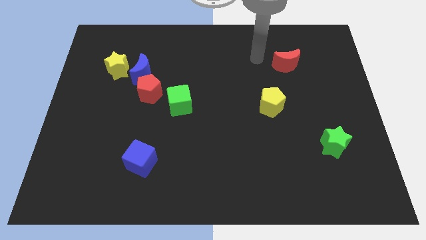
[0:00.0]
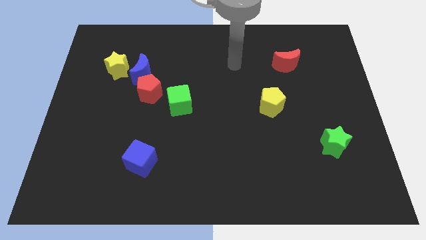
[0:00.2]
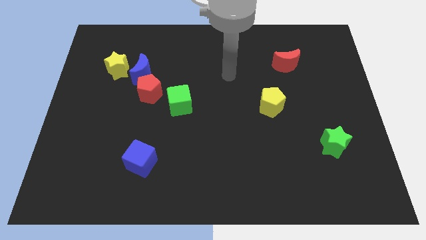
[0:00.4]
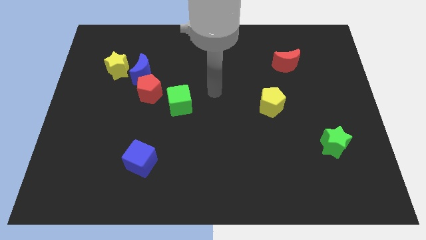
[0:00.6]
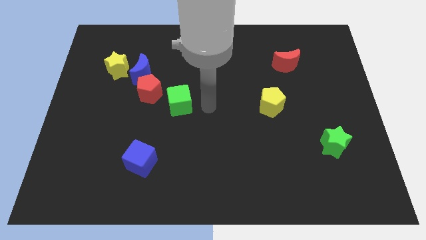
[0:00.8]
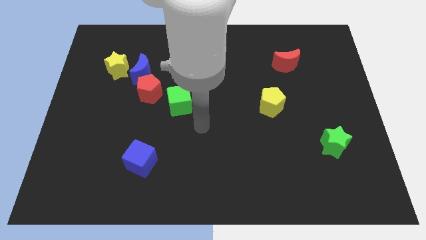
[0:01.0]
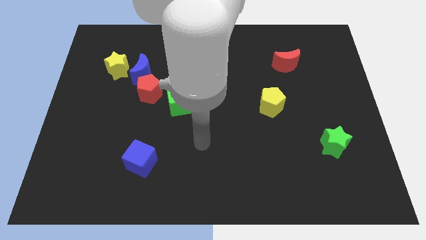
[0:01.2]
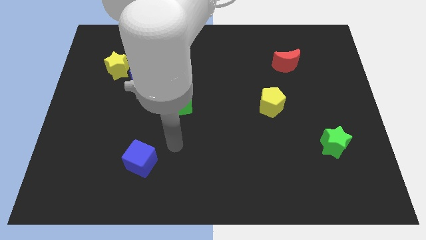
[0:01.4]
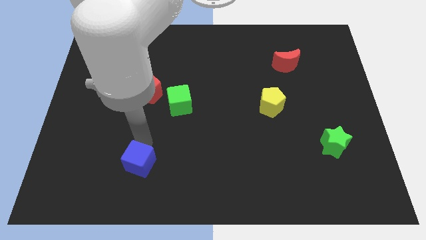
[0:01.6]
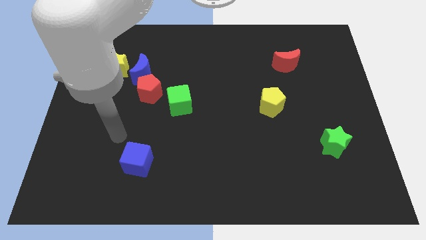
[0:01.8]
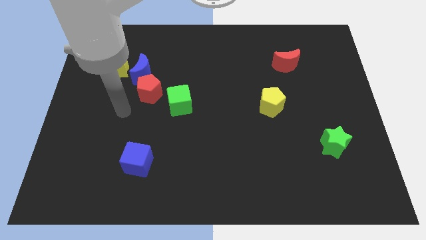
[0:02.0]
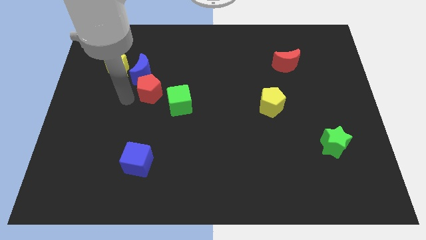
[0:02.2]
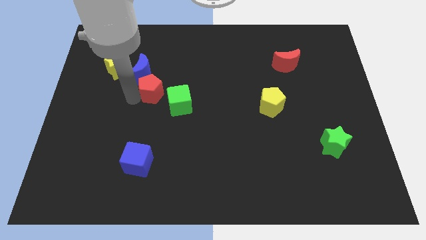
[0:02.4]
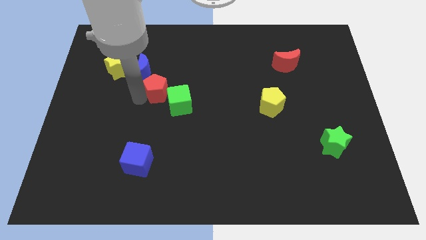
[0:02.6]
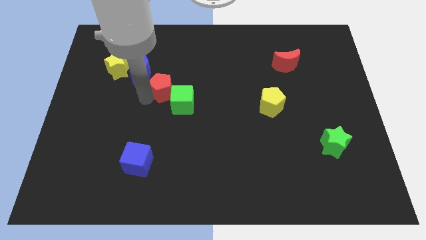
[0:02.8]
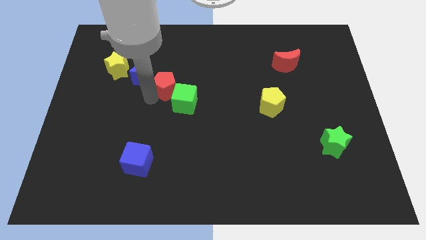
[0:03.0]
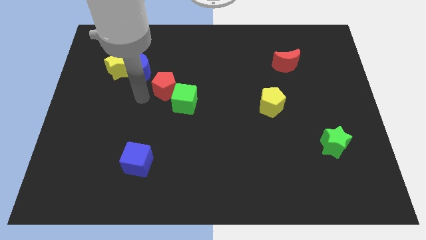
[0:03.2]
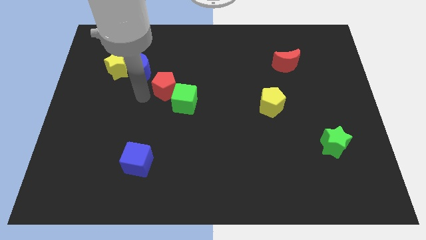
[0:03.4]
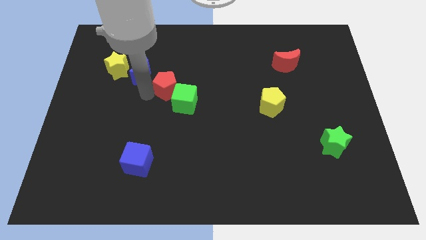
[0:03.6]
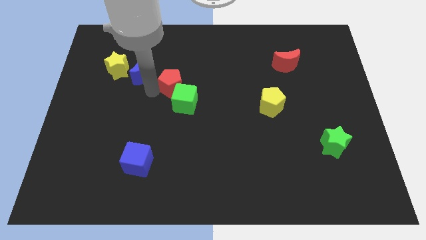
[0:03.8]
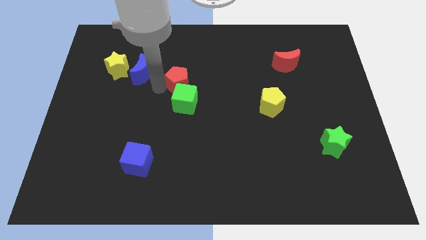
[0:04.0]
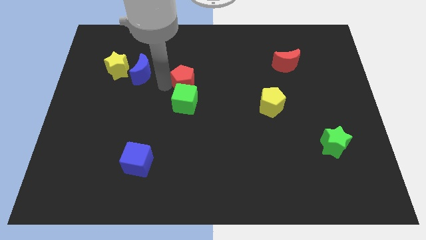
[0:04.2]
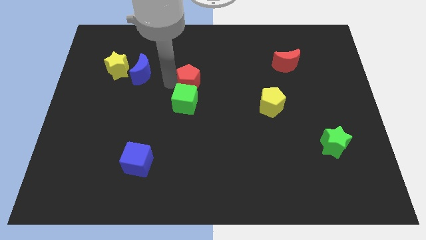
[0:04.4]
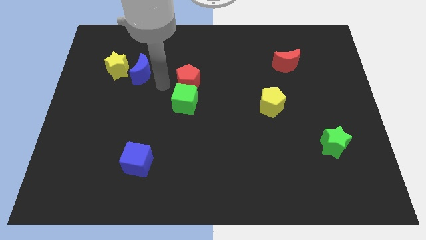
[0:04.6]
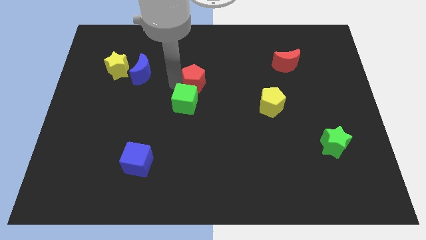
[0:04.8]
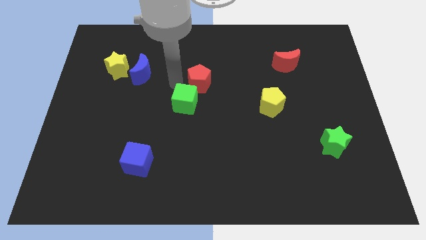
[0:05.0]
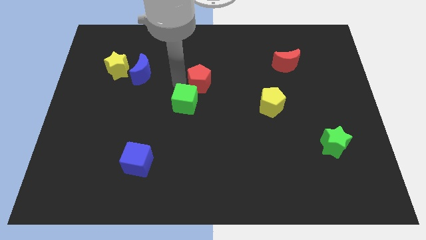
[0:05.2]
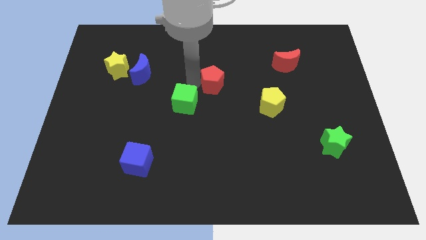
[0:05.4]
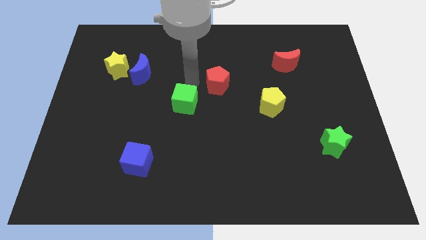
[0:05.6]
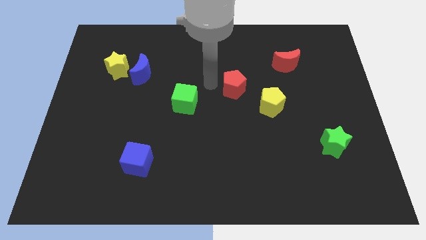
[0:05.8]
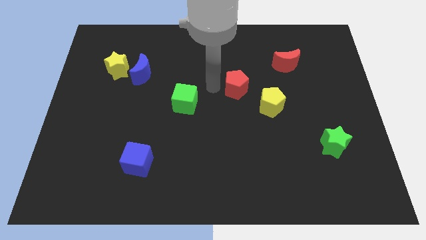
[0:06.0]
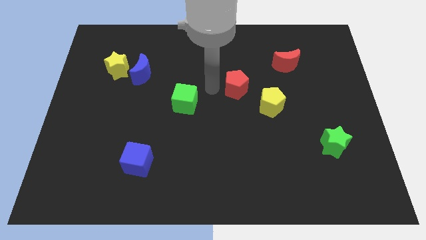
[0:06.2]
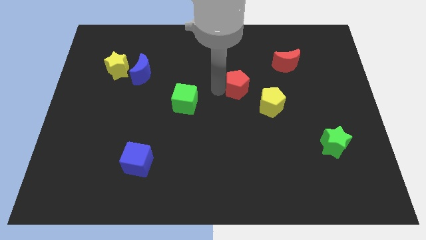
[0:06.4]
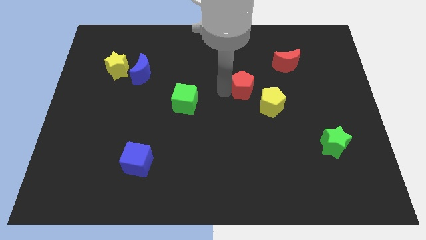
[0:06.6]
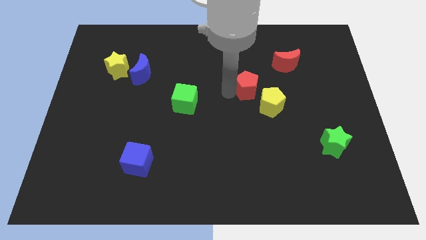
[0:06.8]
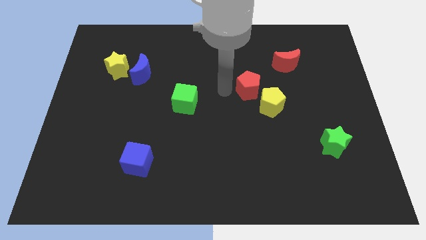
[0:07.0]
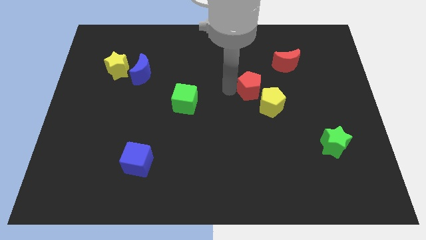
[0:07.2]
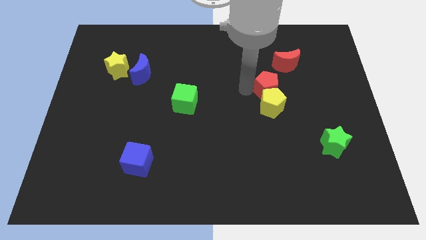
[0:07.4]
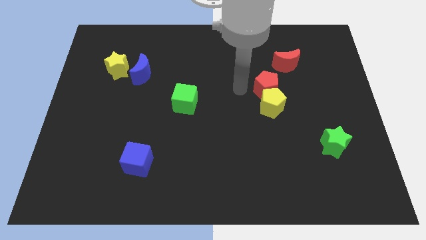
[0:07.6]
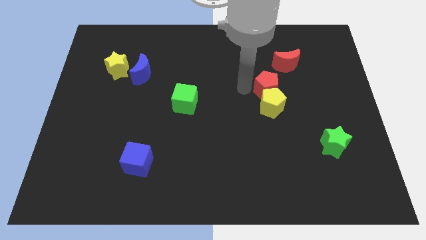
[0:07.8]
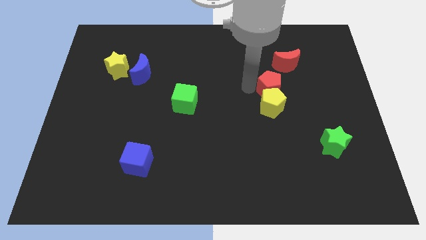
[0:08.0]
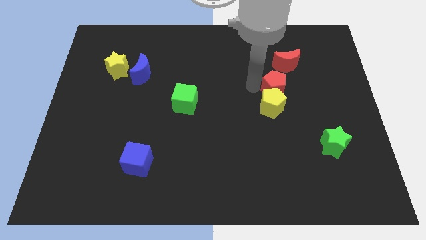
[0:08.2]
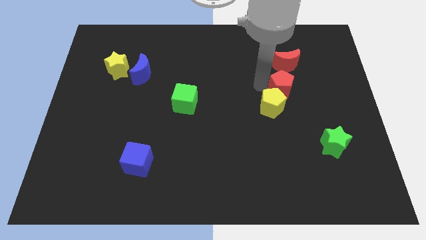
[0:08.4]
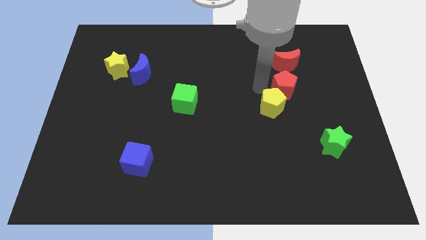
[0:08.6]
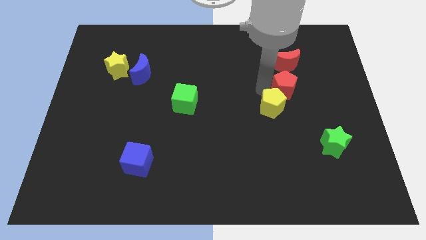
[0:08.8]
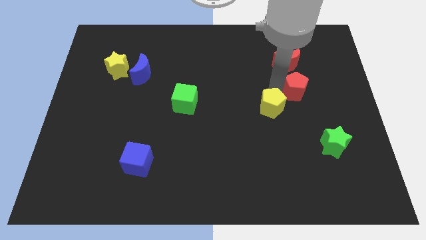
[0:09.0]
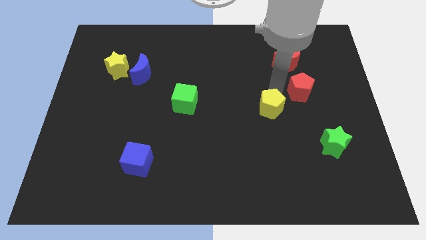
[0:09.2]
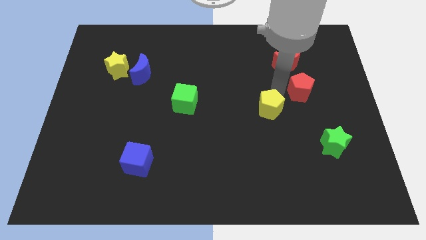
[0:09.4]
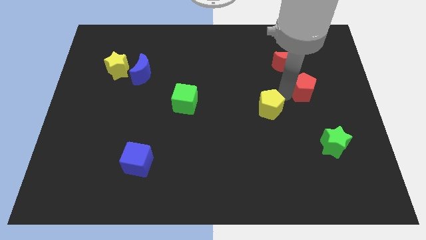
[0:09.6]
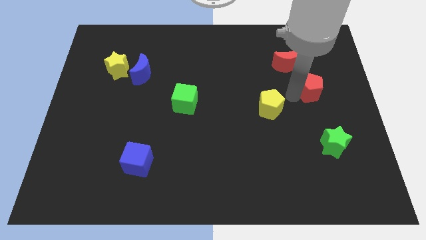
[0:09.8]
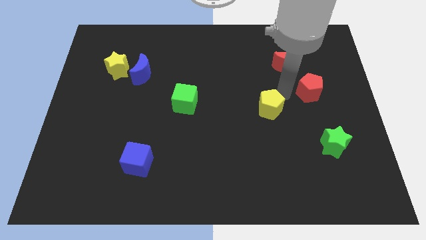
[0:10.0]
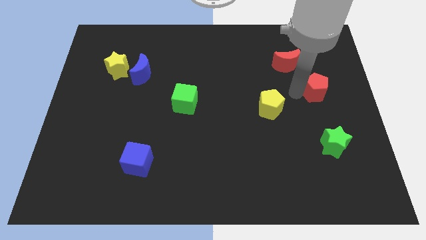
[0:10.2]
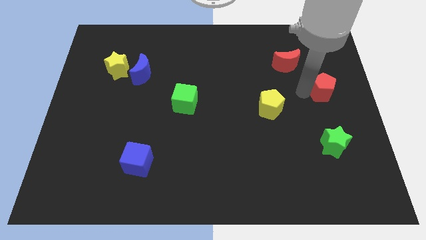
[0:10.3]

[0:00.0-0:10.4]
slide the red pentagon to the right side
